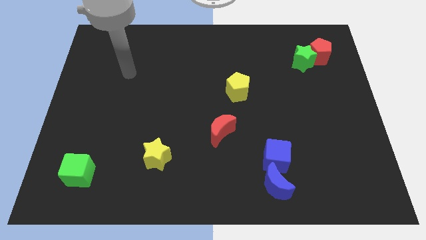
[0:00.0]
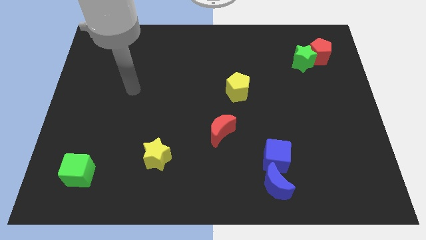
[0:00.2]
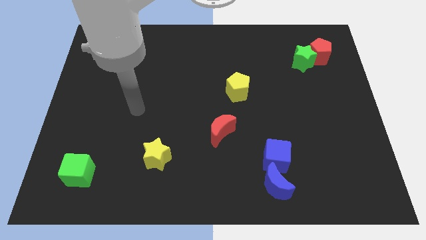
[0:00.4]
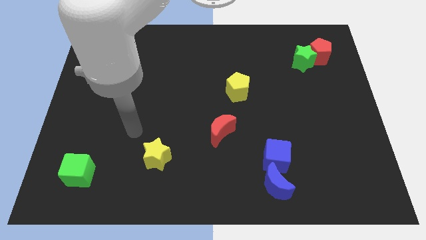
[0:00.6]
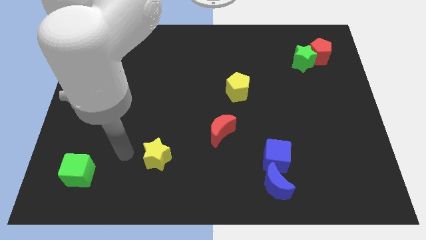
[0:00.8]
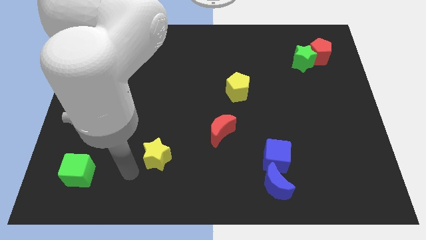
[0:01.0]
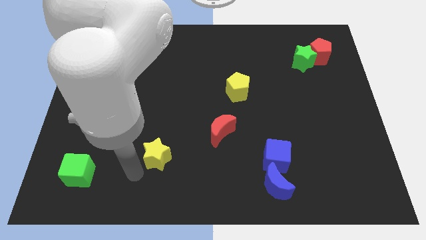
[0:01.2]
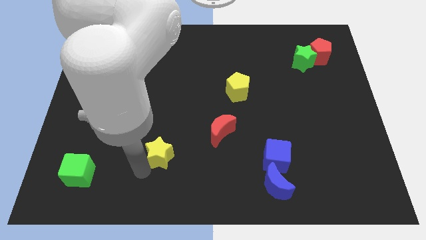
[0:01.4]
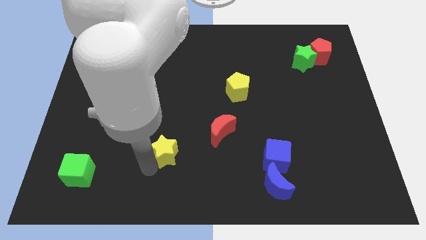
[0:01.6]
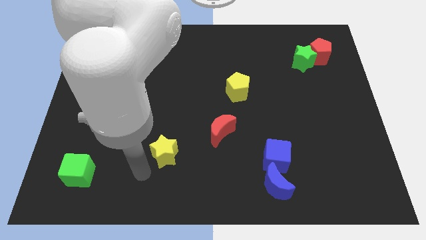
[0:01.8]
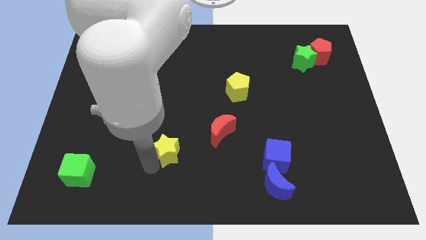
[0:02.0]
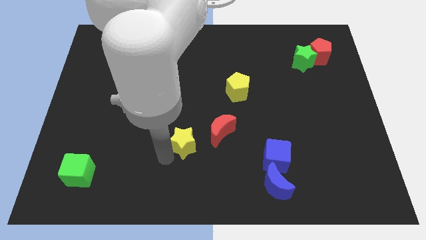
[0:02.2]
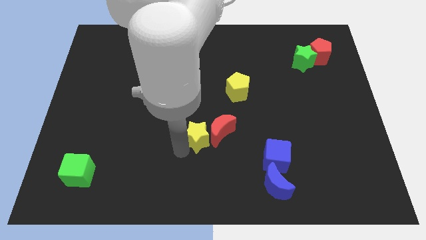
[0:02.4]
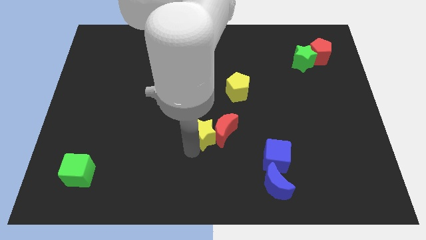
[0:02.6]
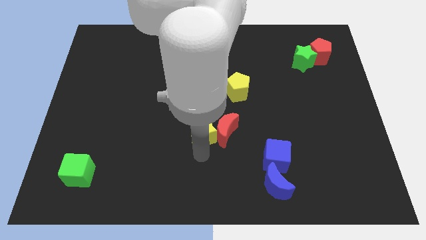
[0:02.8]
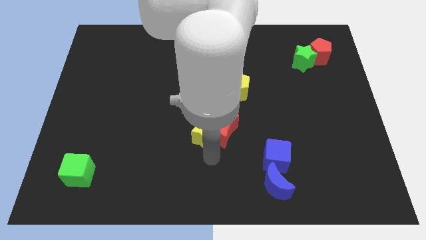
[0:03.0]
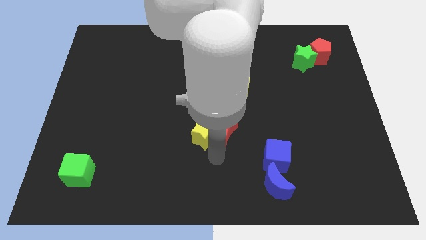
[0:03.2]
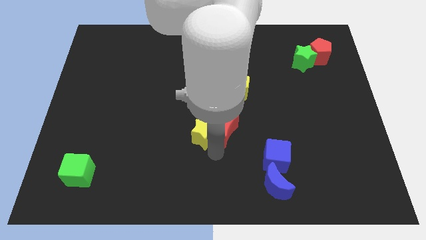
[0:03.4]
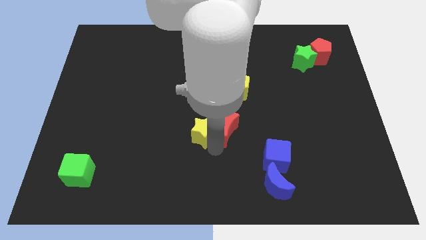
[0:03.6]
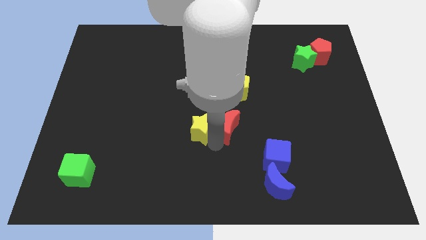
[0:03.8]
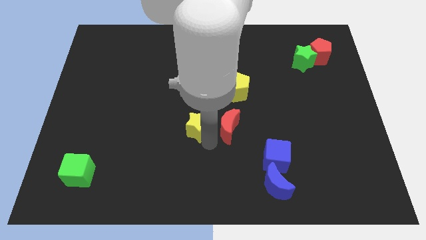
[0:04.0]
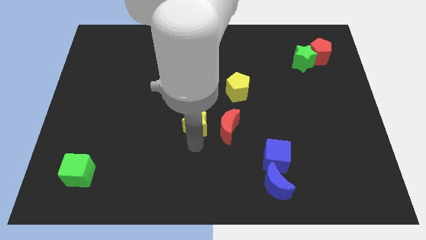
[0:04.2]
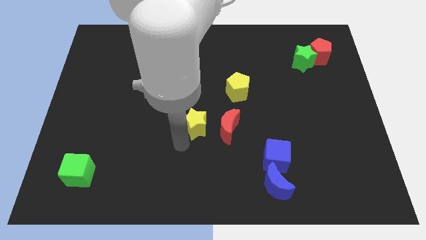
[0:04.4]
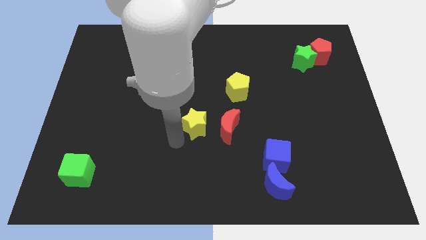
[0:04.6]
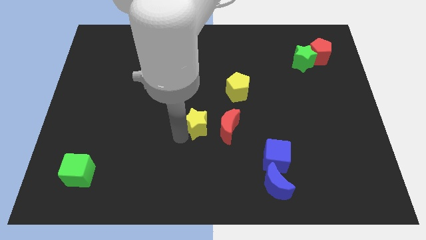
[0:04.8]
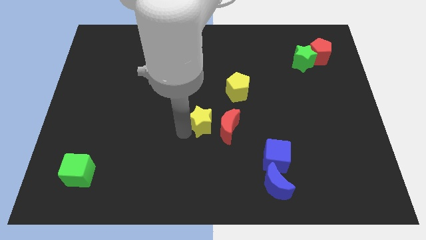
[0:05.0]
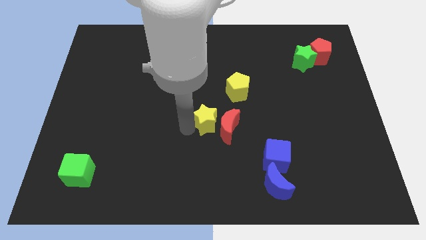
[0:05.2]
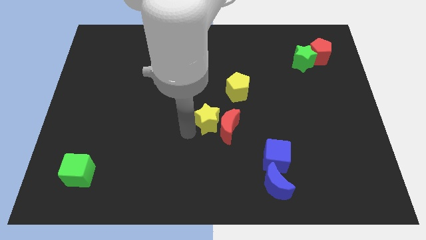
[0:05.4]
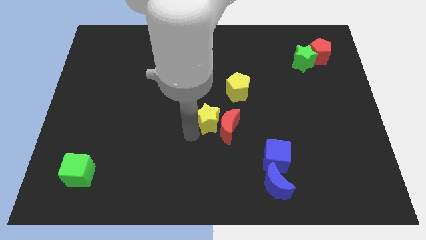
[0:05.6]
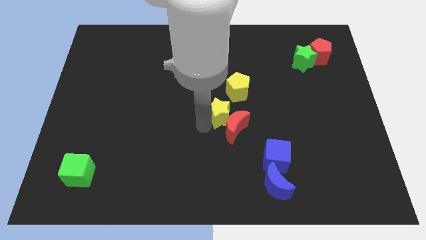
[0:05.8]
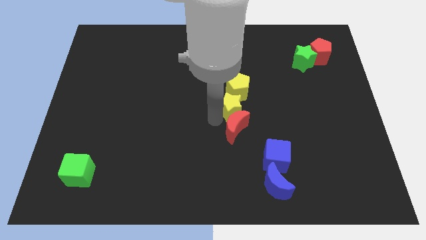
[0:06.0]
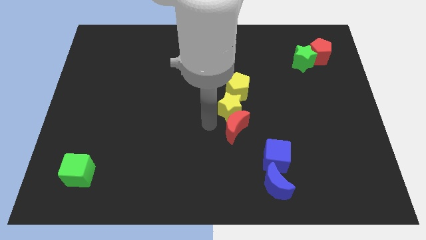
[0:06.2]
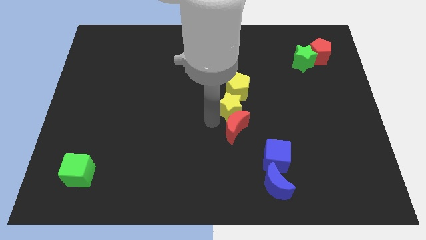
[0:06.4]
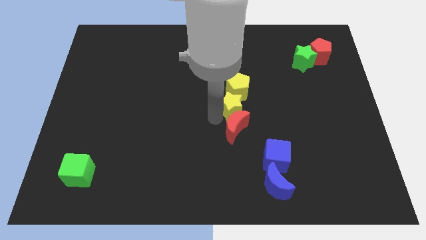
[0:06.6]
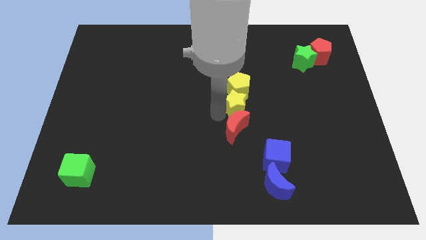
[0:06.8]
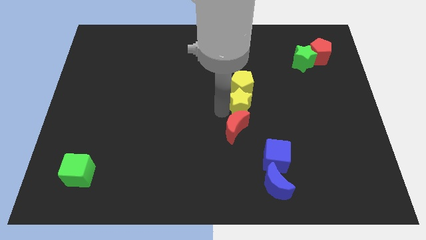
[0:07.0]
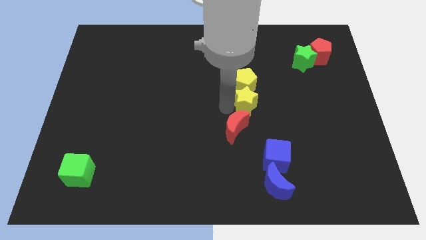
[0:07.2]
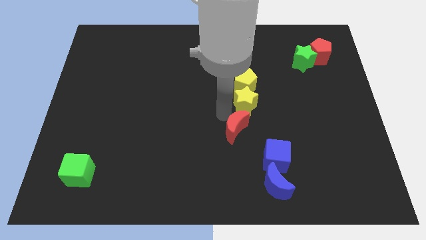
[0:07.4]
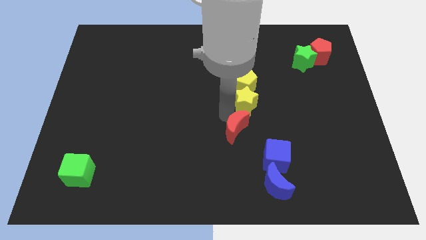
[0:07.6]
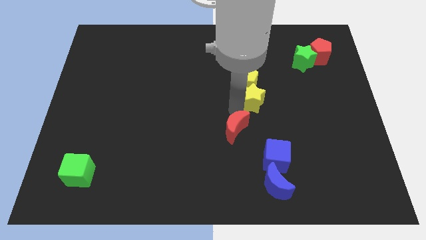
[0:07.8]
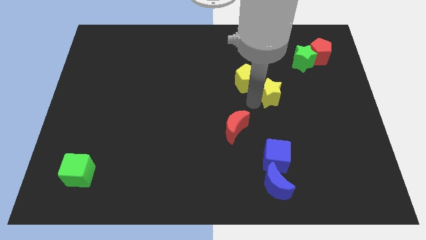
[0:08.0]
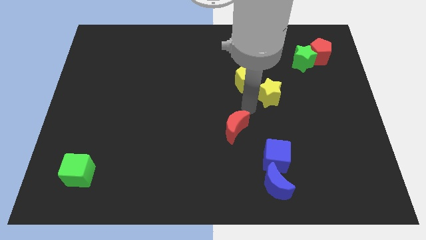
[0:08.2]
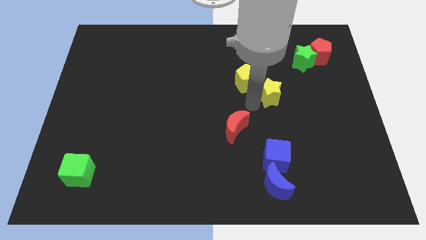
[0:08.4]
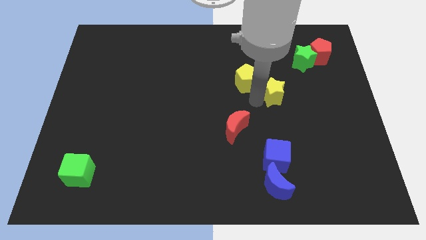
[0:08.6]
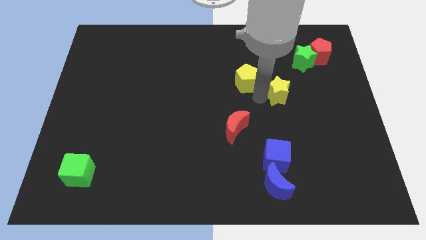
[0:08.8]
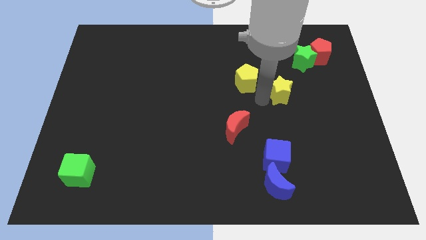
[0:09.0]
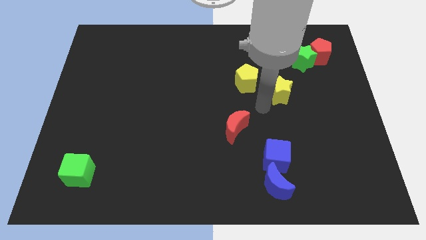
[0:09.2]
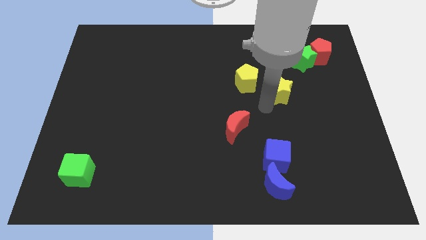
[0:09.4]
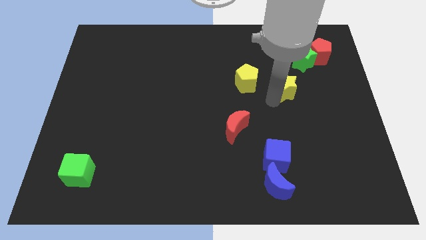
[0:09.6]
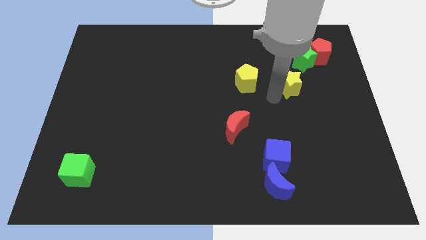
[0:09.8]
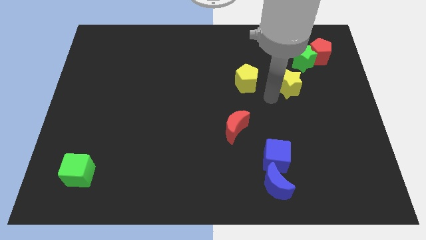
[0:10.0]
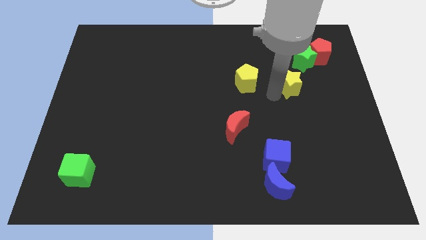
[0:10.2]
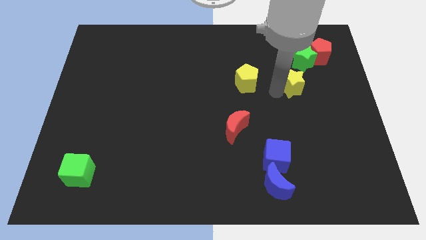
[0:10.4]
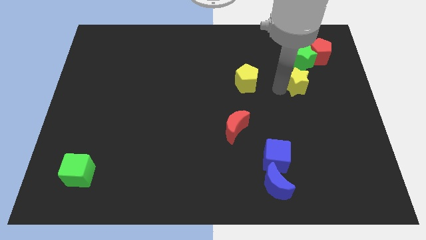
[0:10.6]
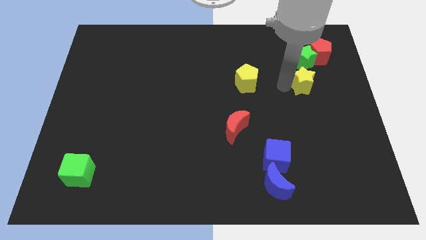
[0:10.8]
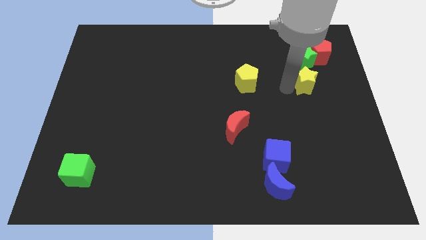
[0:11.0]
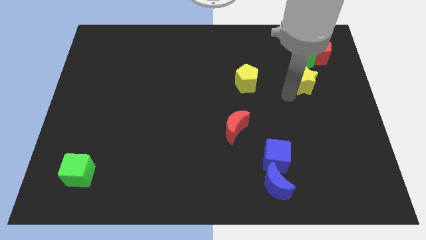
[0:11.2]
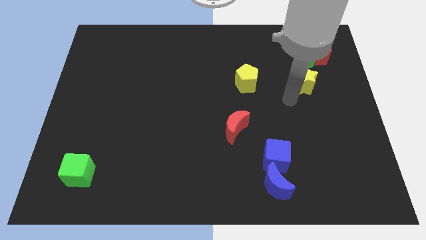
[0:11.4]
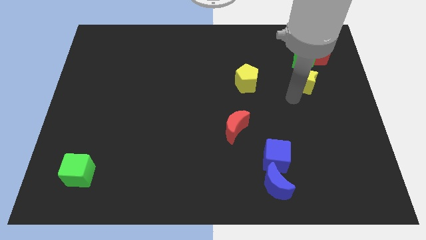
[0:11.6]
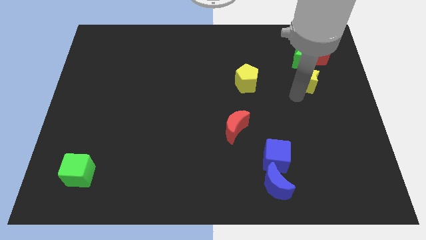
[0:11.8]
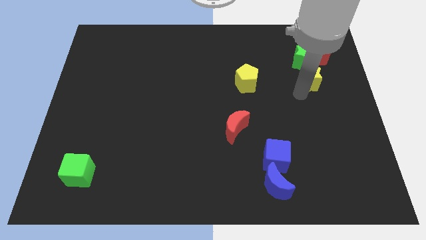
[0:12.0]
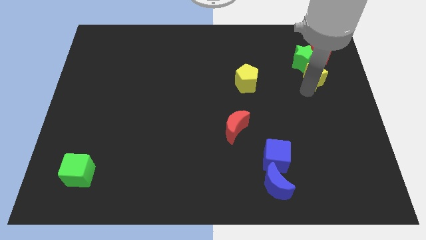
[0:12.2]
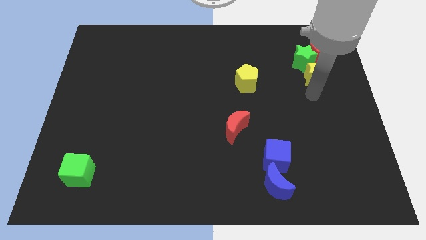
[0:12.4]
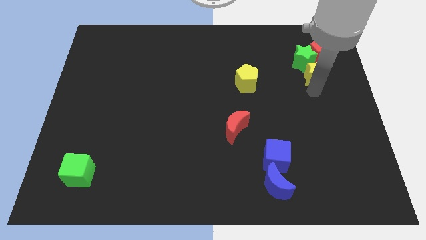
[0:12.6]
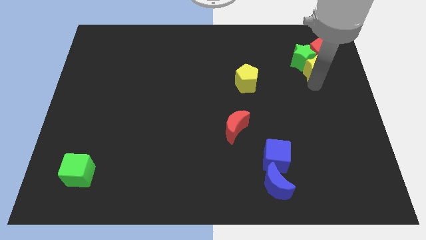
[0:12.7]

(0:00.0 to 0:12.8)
move the yellow star close to the red pentagon
